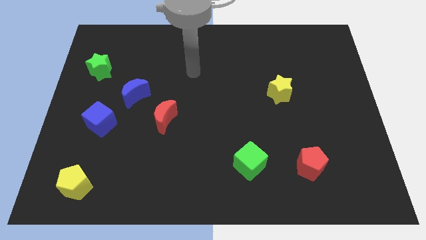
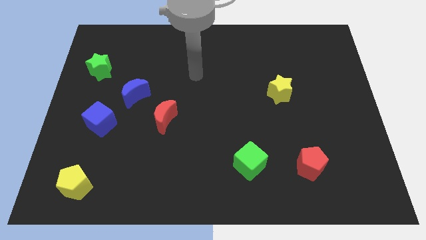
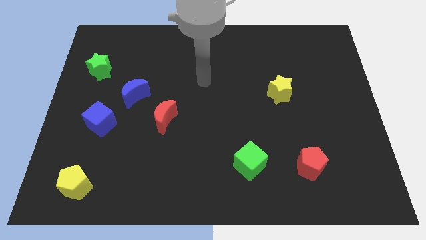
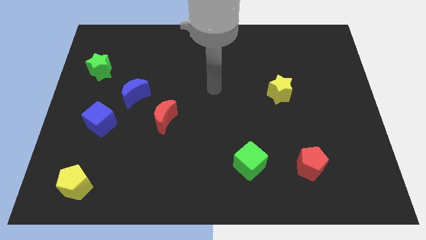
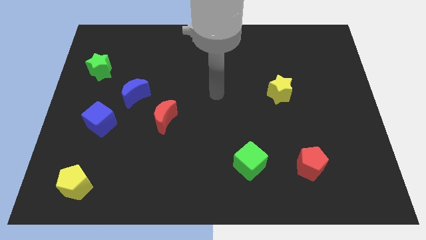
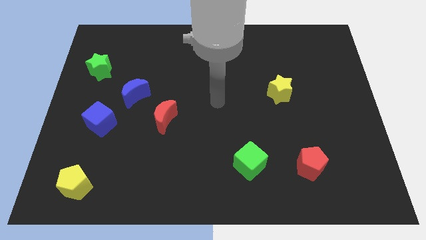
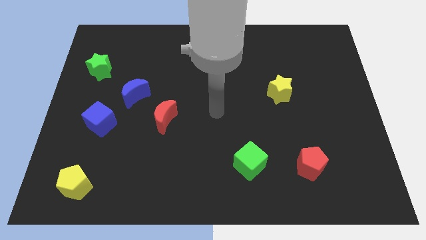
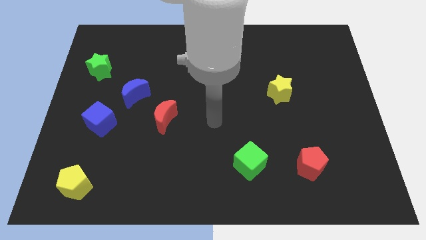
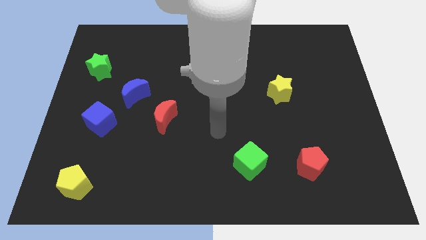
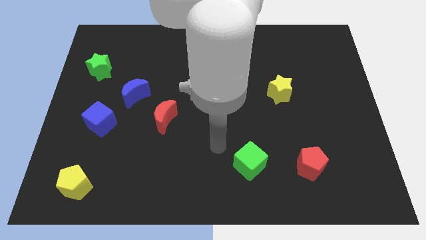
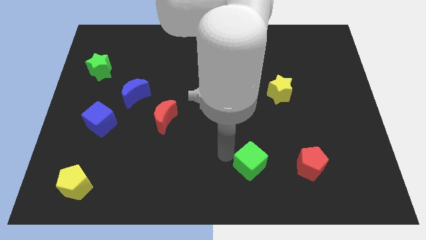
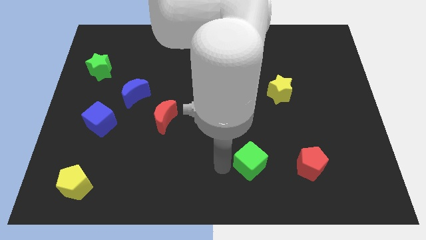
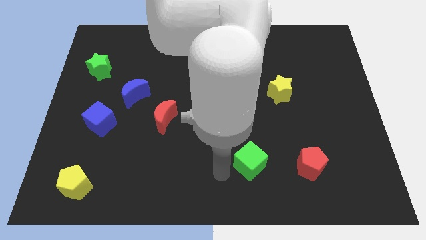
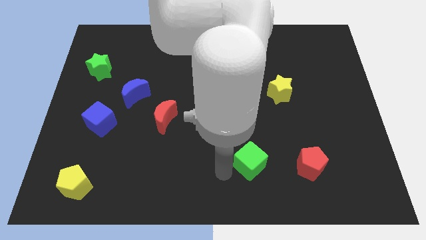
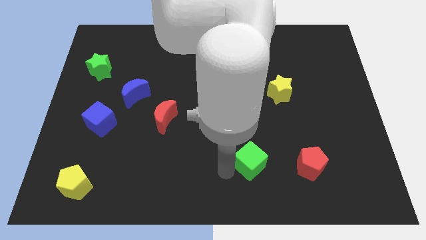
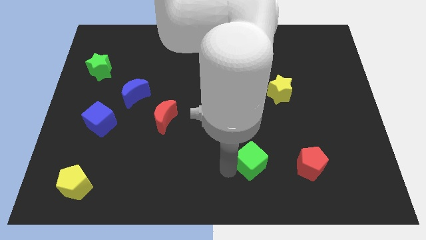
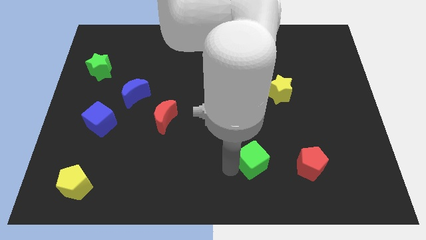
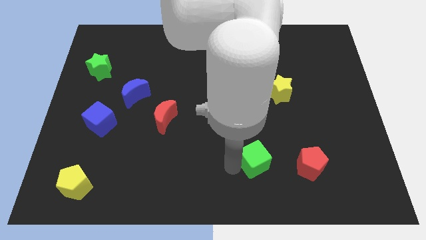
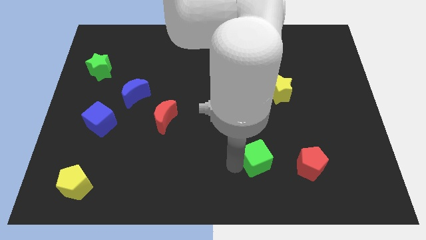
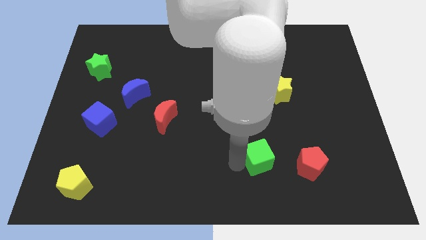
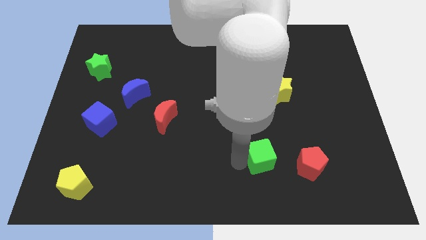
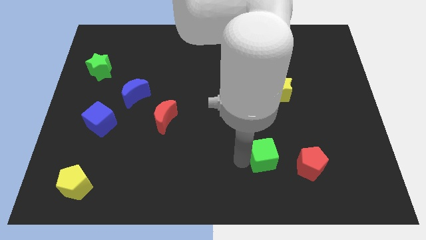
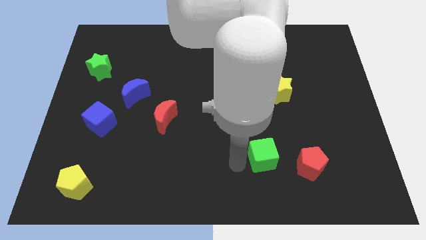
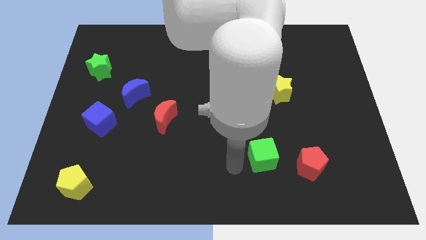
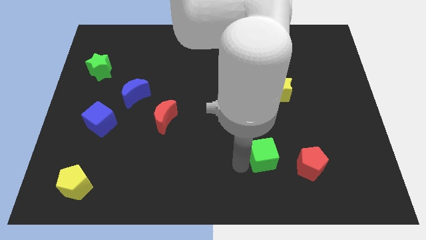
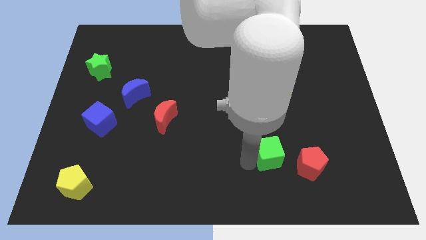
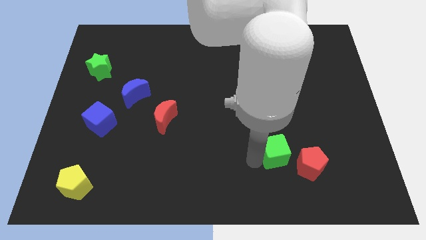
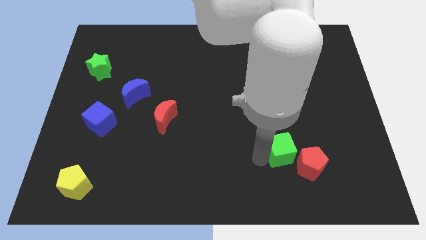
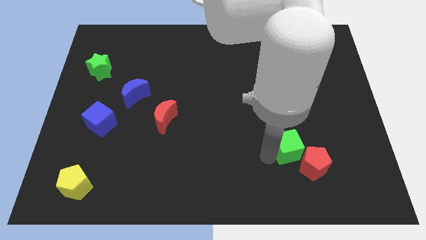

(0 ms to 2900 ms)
move the green cube to the right a little

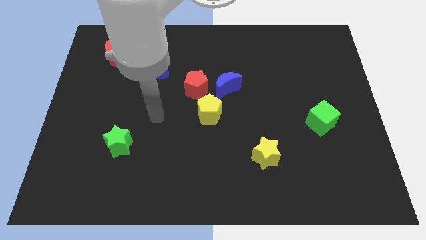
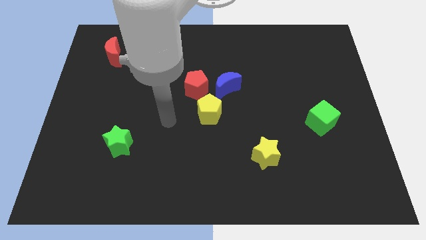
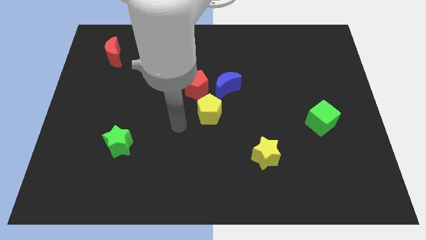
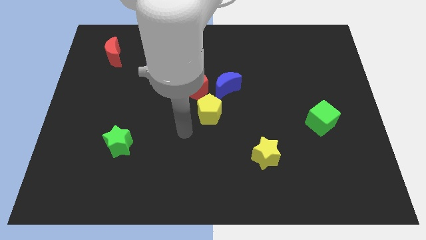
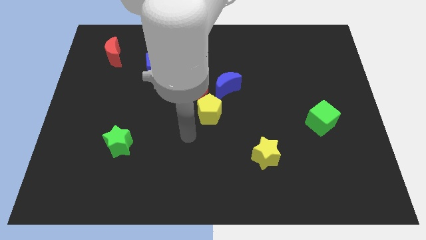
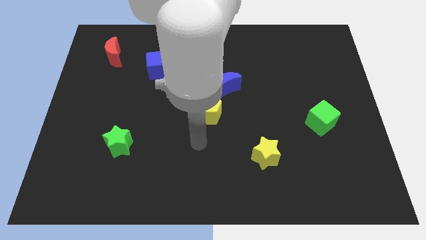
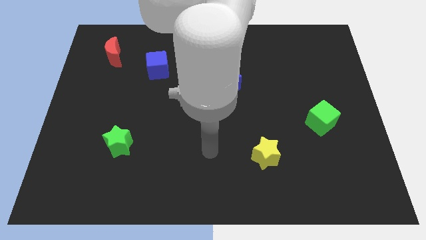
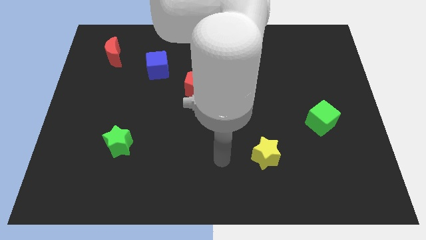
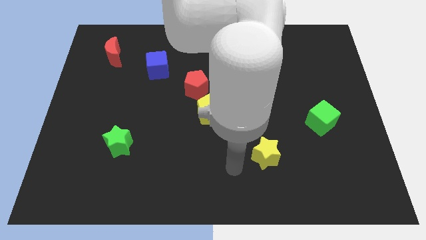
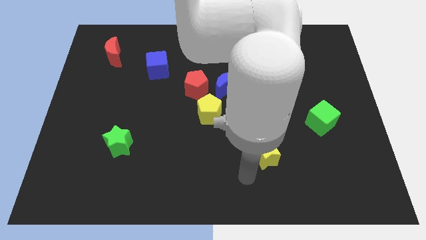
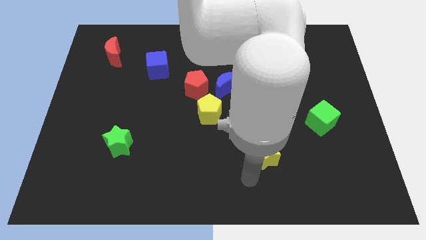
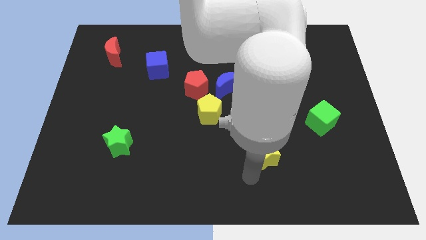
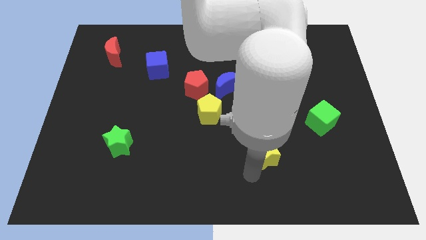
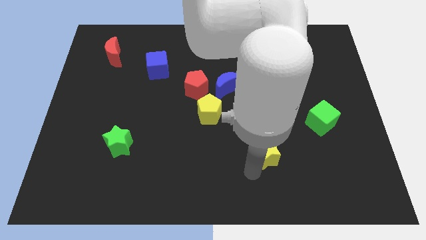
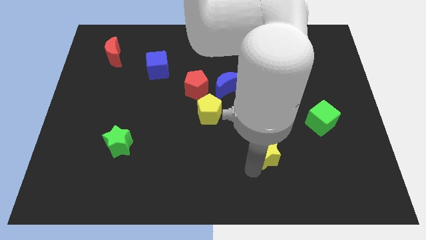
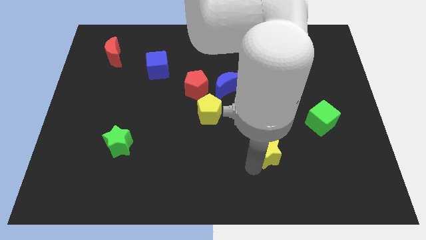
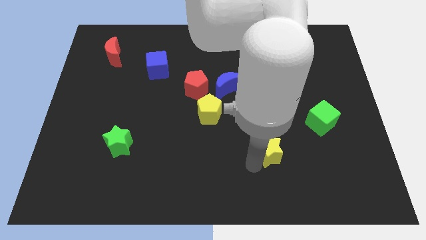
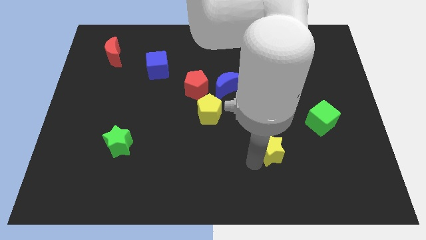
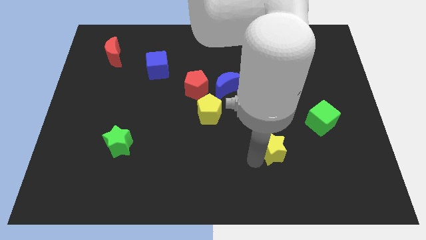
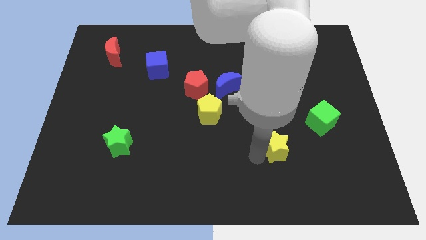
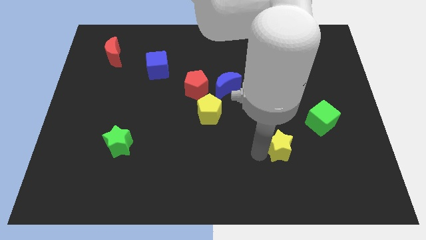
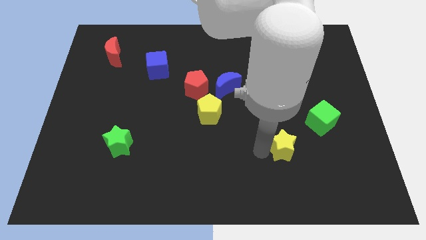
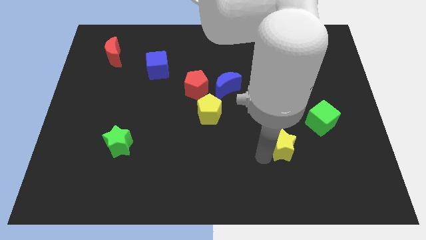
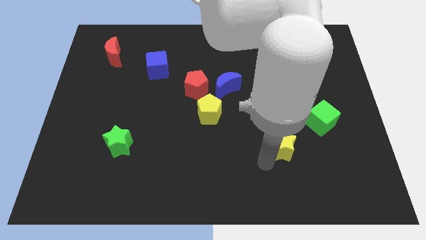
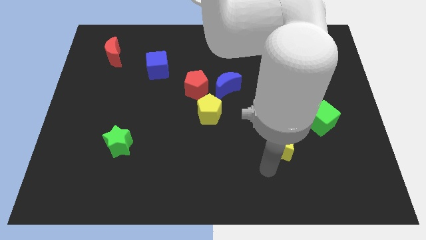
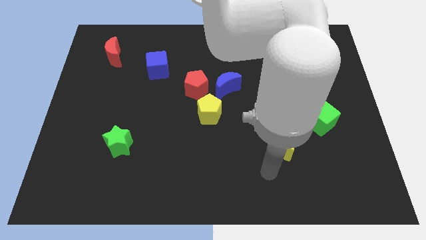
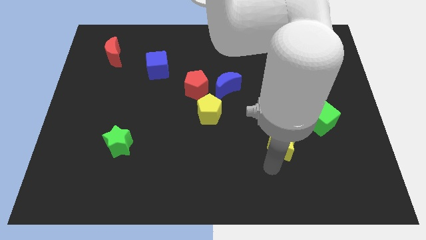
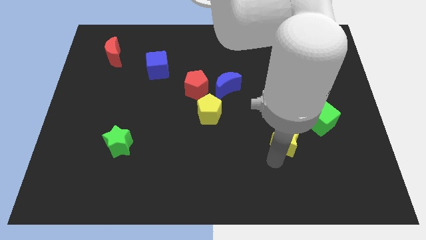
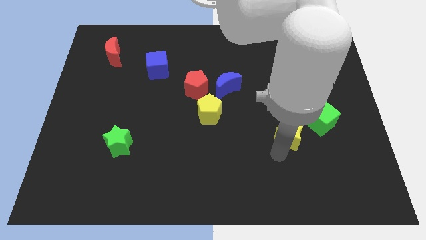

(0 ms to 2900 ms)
slightly push the yellow star diagonally up and to the right

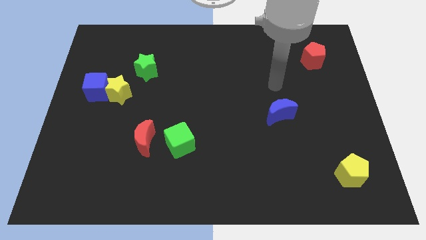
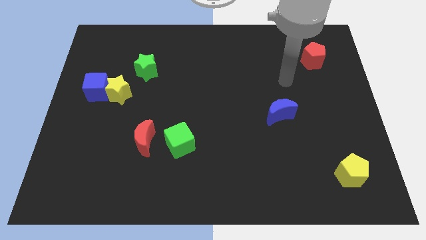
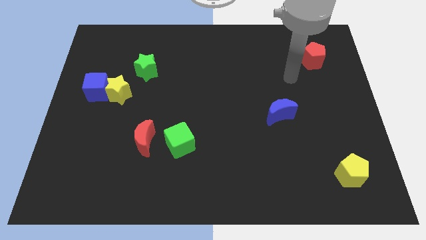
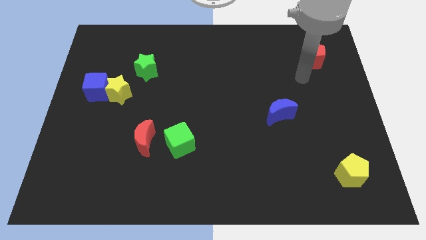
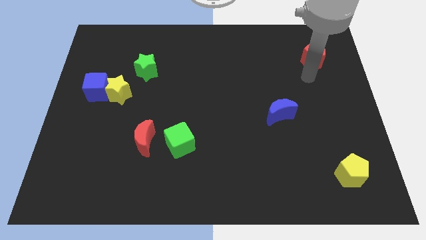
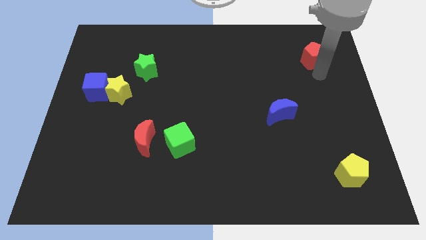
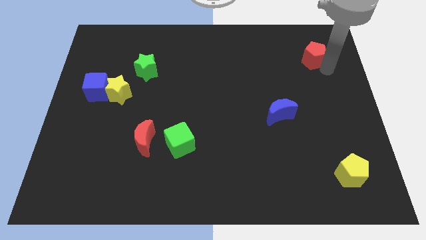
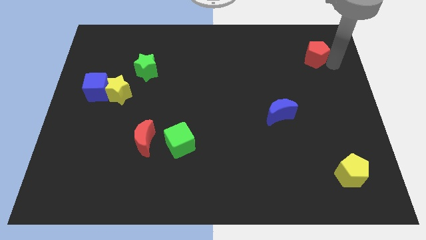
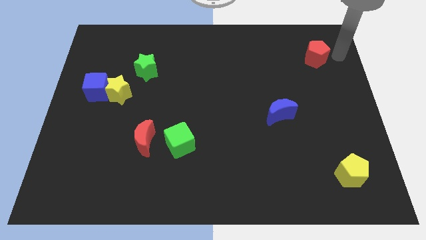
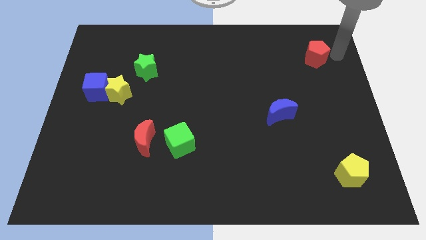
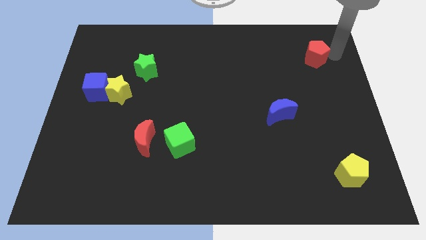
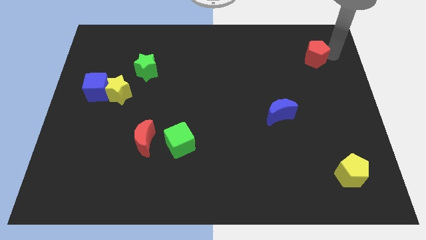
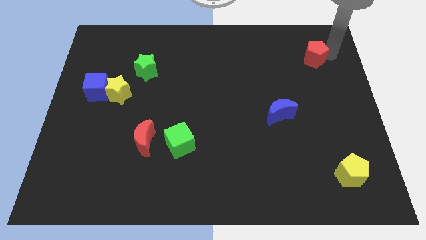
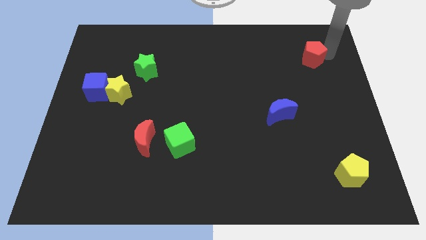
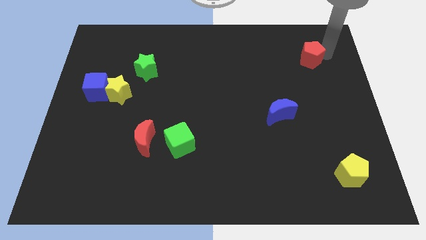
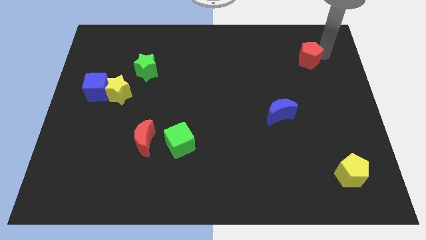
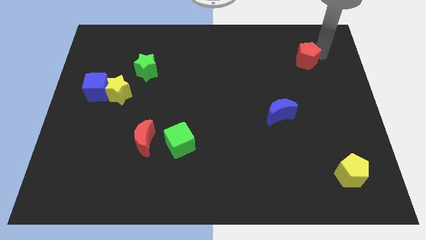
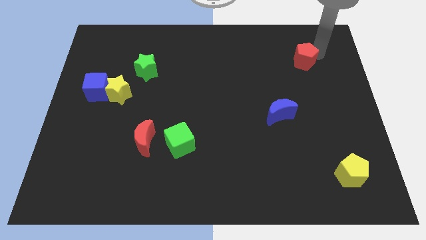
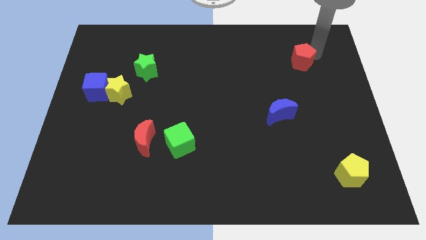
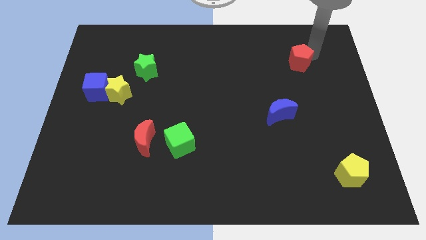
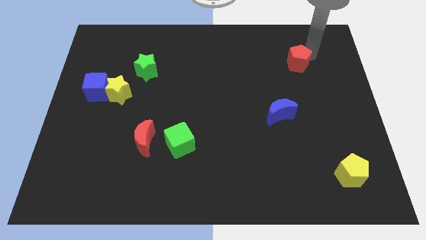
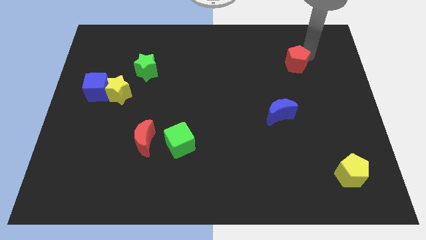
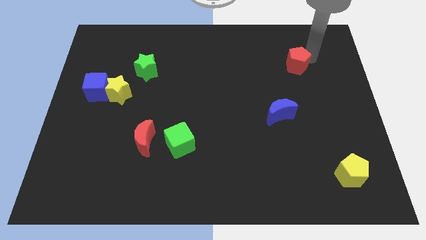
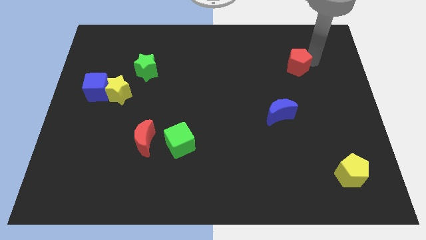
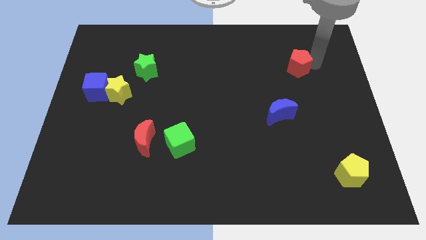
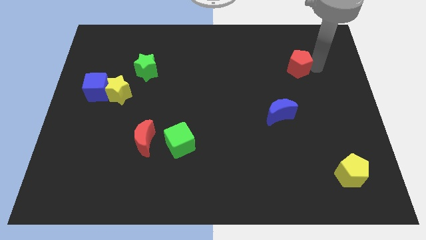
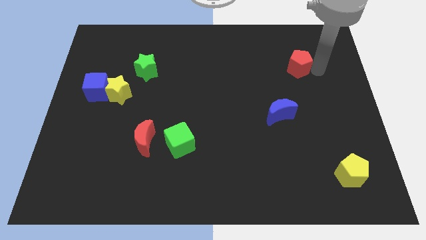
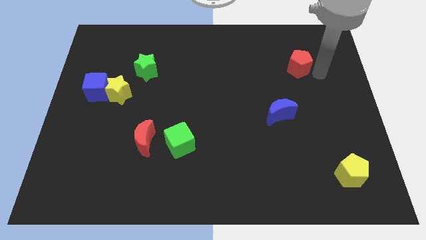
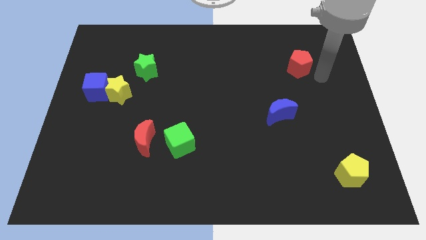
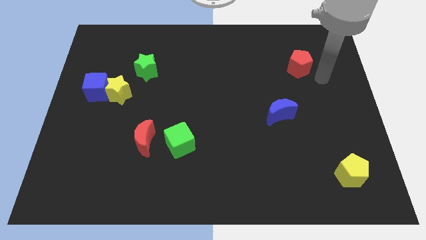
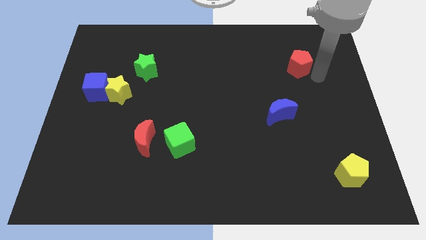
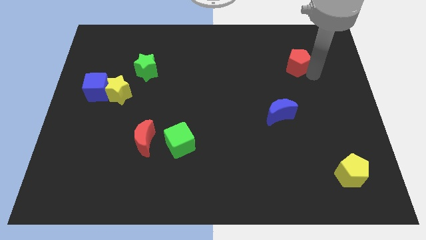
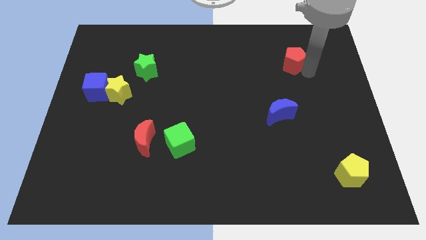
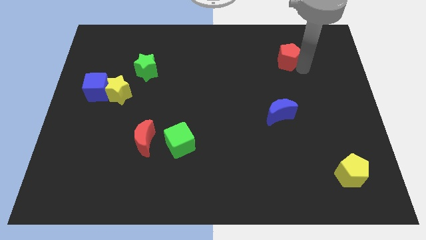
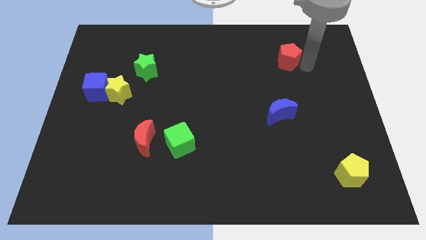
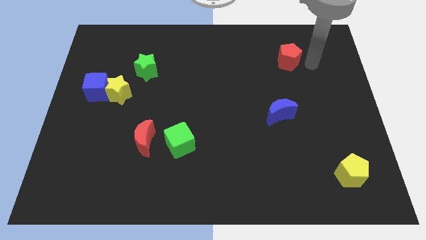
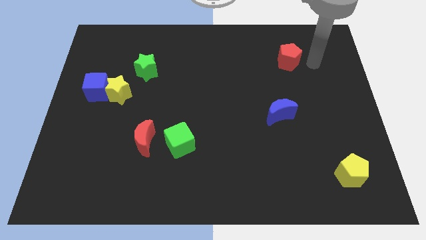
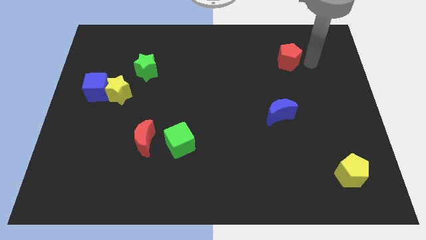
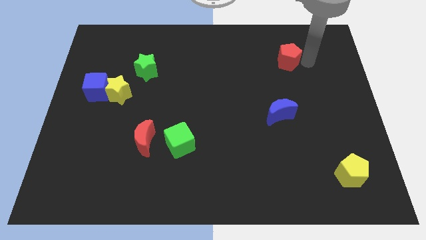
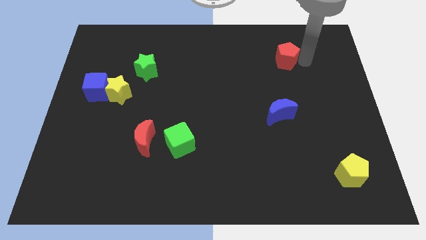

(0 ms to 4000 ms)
slightly slide the red pentagon to the left
